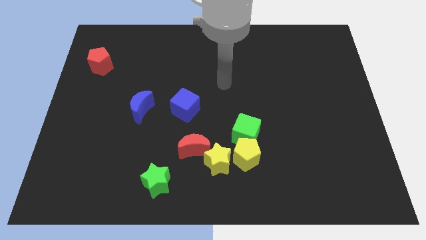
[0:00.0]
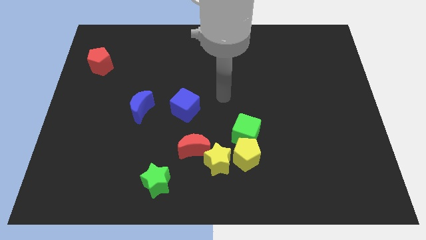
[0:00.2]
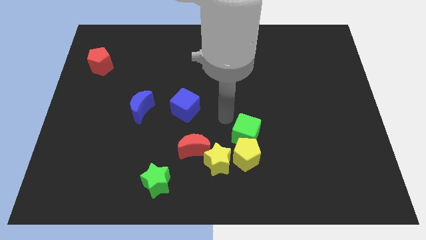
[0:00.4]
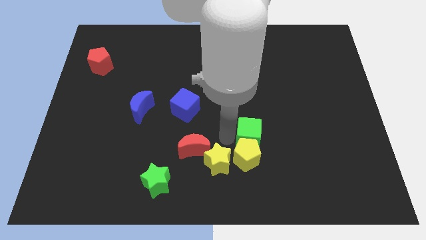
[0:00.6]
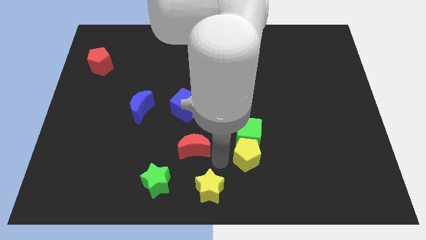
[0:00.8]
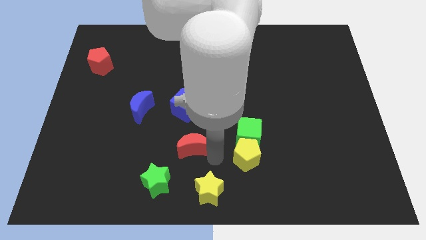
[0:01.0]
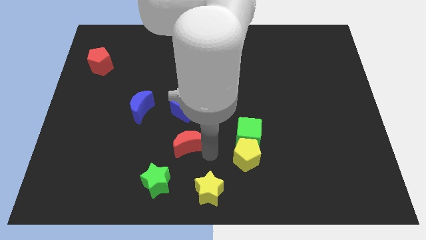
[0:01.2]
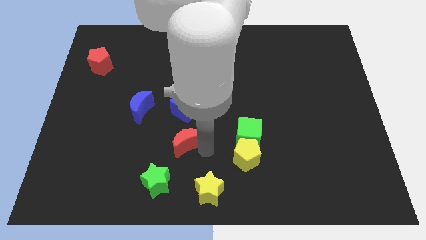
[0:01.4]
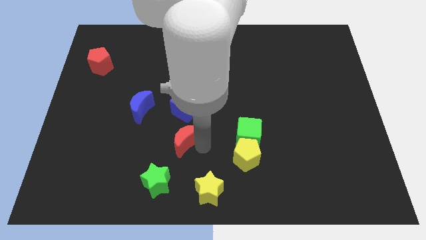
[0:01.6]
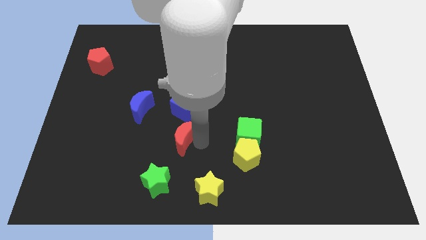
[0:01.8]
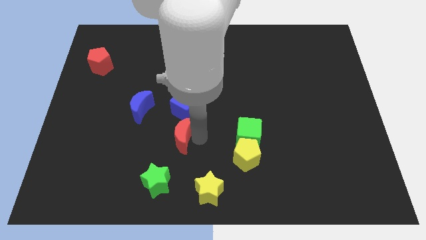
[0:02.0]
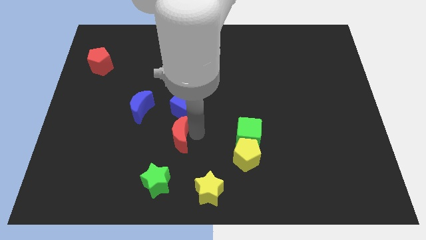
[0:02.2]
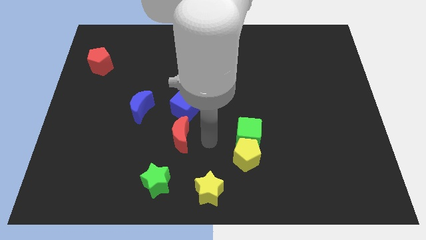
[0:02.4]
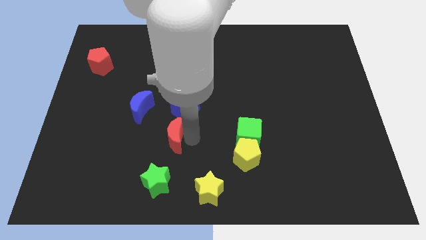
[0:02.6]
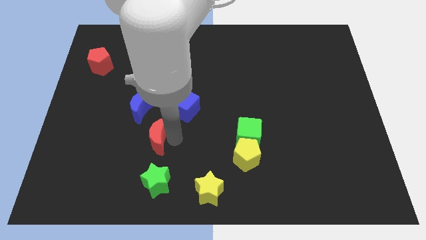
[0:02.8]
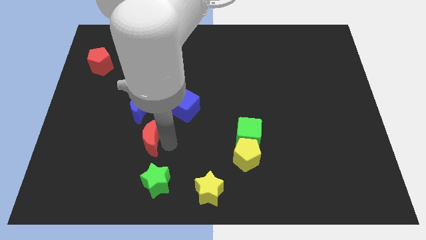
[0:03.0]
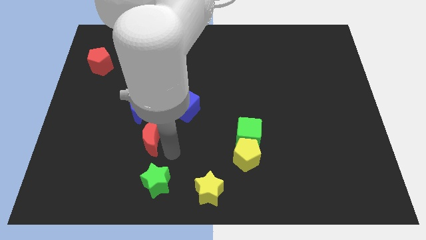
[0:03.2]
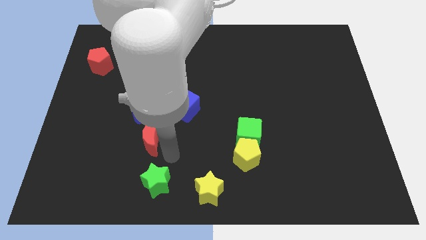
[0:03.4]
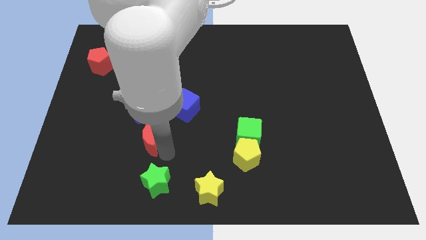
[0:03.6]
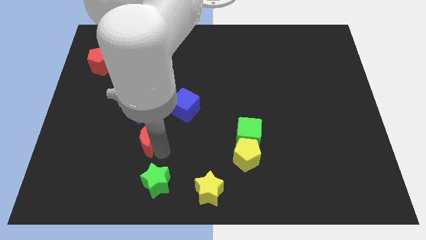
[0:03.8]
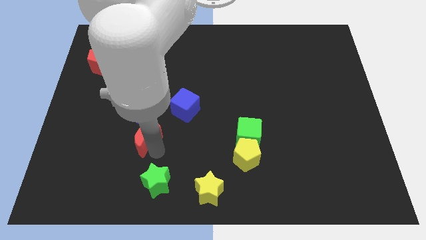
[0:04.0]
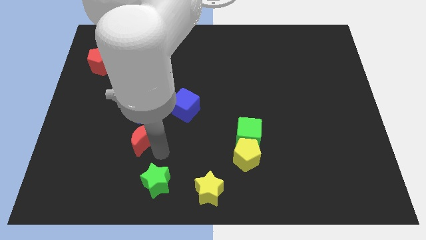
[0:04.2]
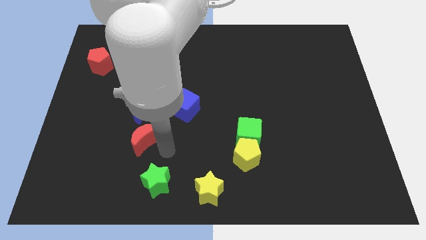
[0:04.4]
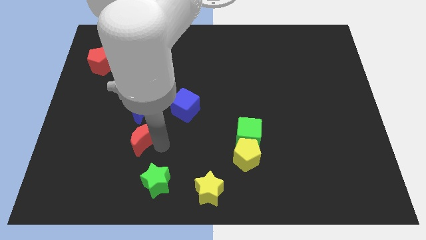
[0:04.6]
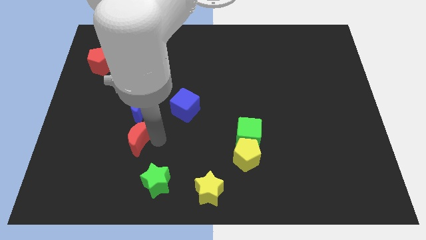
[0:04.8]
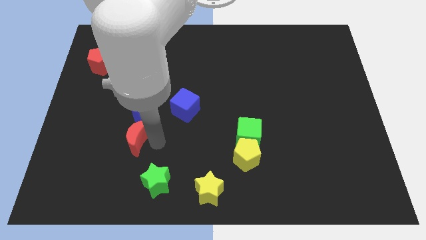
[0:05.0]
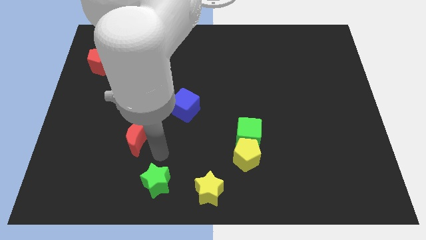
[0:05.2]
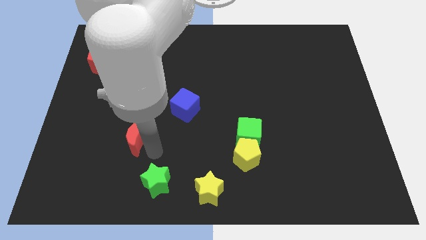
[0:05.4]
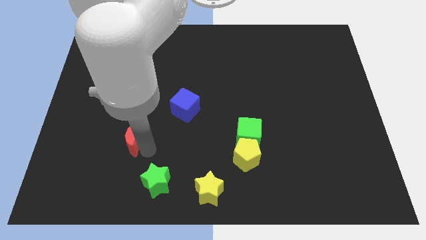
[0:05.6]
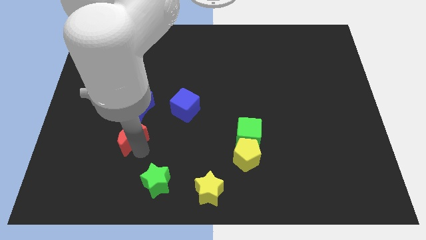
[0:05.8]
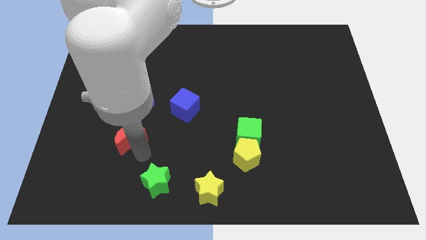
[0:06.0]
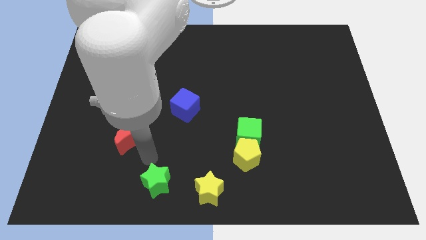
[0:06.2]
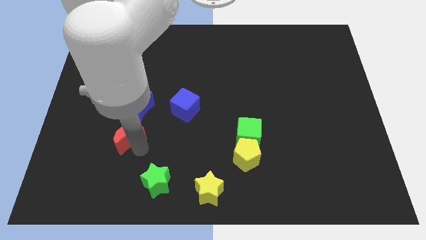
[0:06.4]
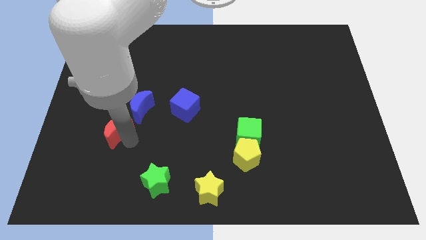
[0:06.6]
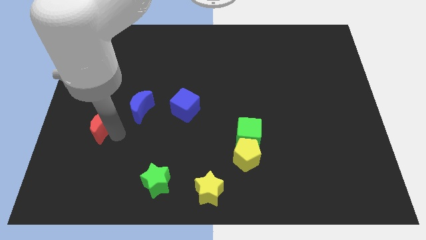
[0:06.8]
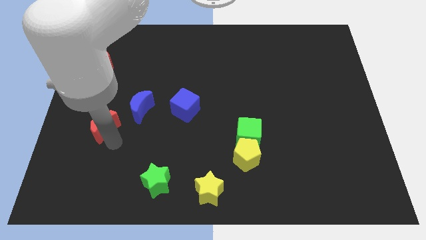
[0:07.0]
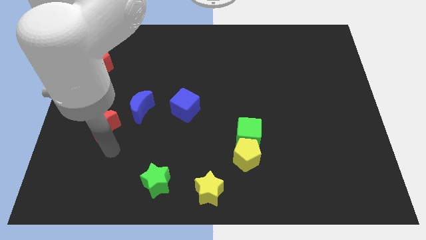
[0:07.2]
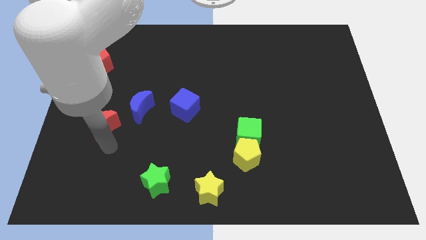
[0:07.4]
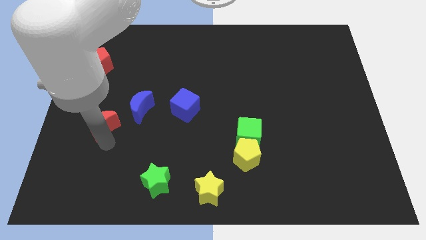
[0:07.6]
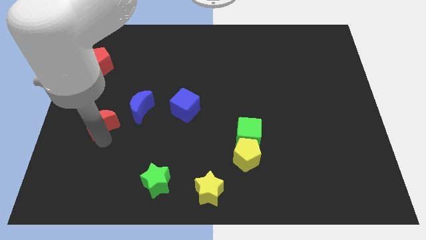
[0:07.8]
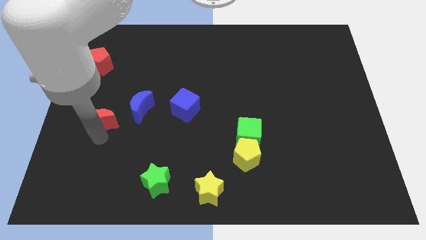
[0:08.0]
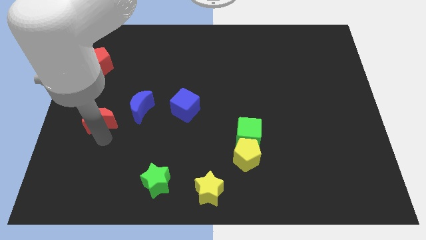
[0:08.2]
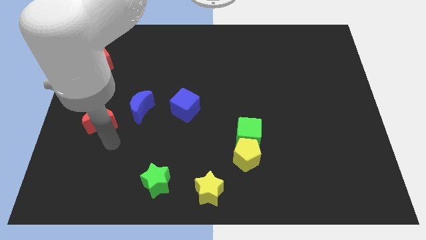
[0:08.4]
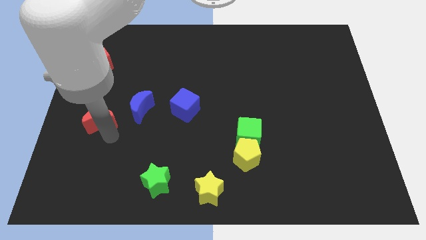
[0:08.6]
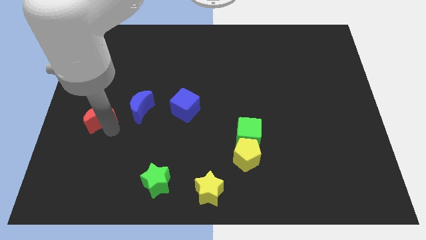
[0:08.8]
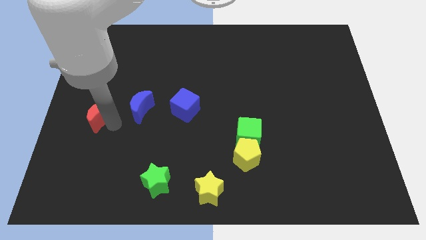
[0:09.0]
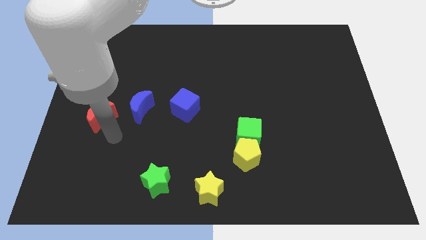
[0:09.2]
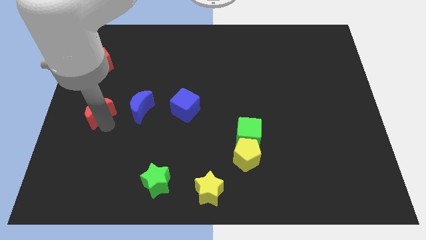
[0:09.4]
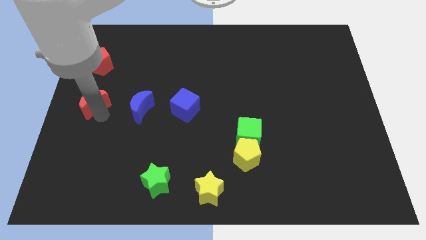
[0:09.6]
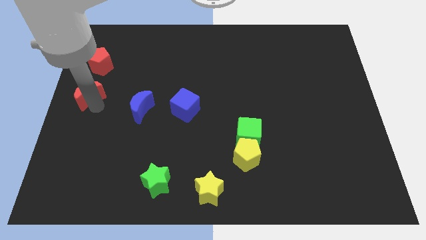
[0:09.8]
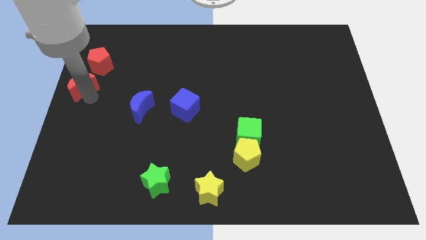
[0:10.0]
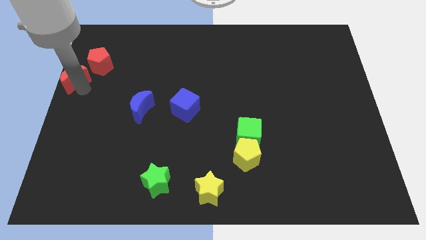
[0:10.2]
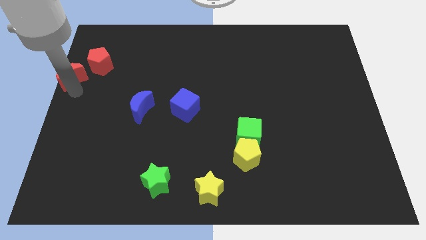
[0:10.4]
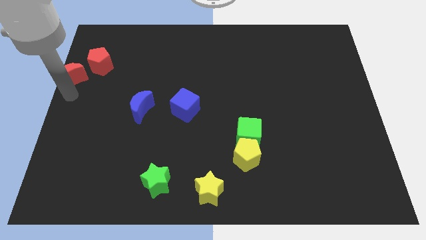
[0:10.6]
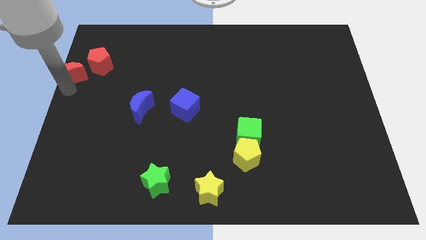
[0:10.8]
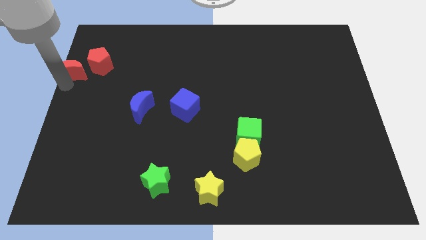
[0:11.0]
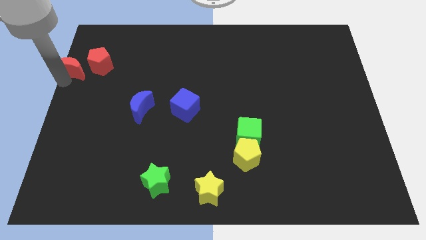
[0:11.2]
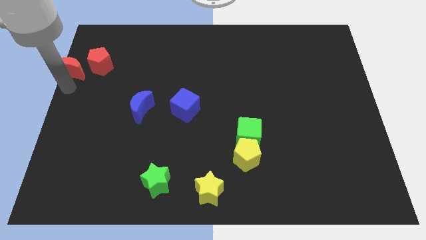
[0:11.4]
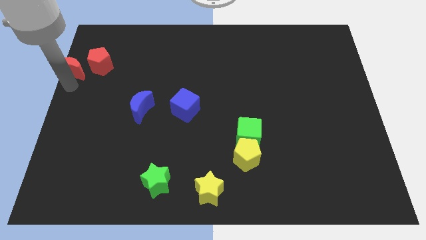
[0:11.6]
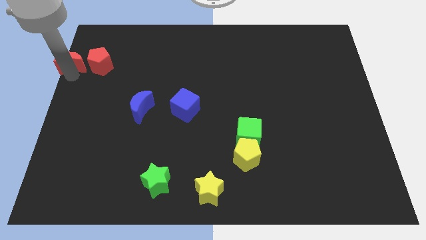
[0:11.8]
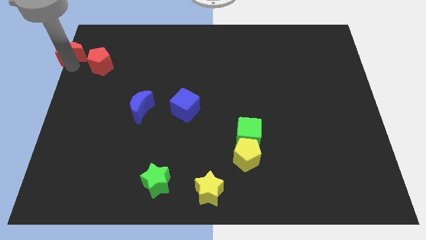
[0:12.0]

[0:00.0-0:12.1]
slide the red moon to the top left corner
